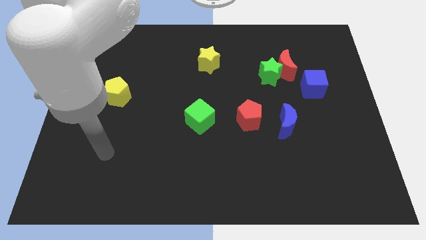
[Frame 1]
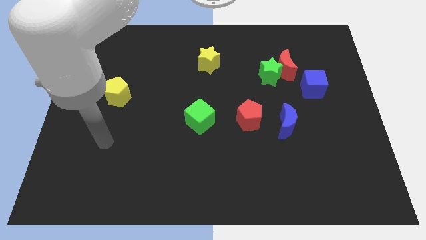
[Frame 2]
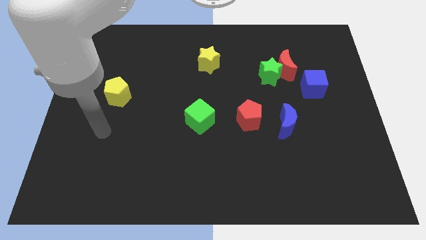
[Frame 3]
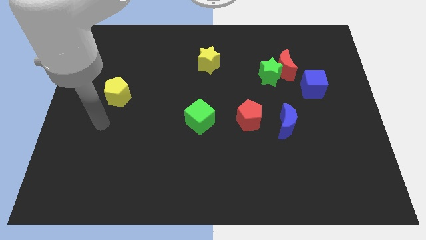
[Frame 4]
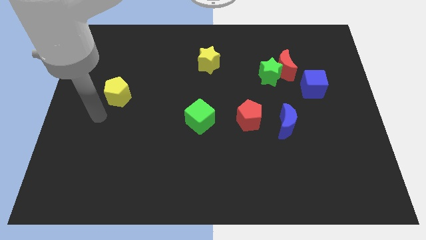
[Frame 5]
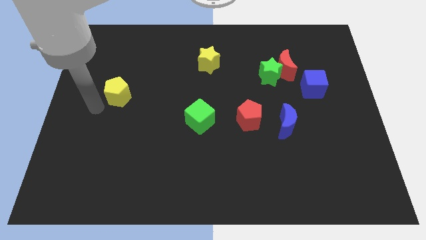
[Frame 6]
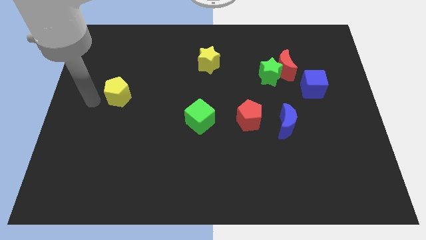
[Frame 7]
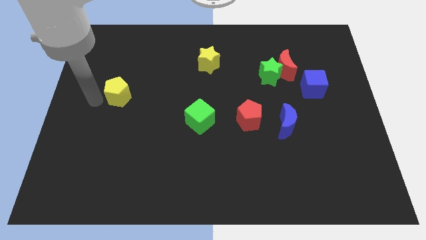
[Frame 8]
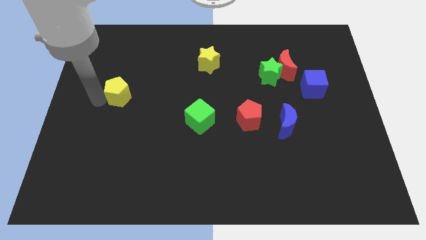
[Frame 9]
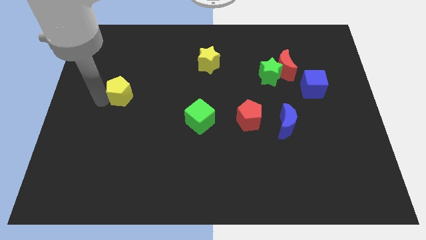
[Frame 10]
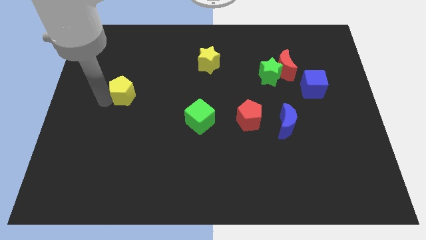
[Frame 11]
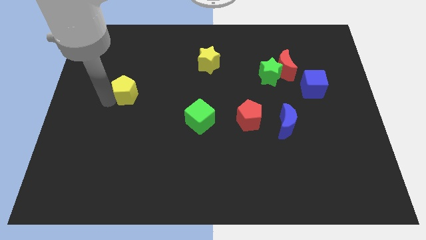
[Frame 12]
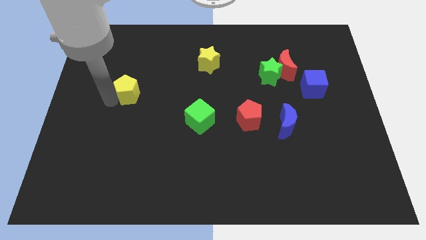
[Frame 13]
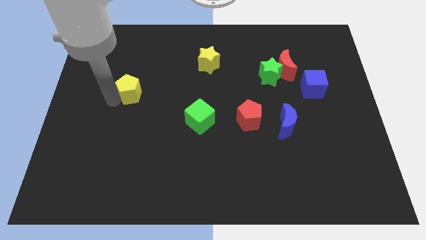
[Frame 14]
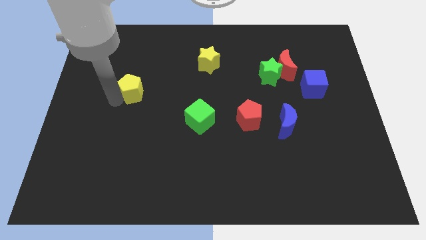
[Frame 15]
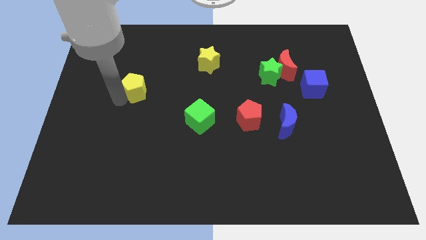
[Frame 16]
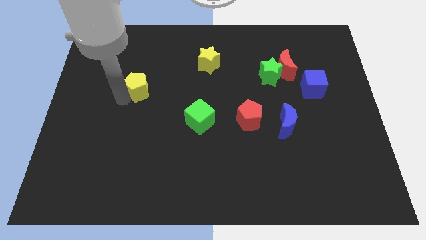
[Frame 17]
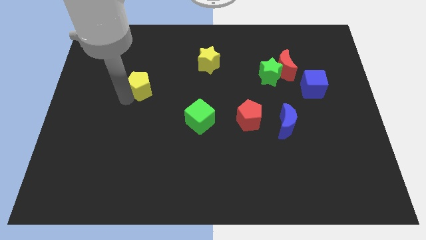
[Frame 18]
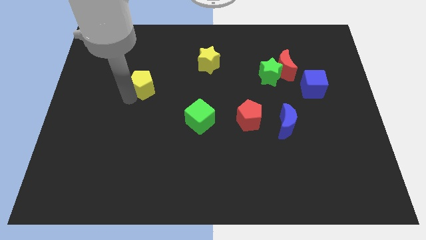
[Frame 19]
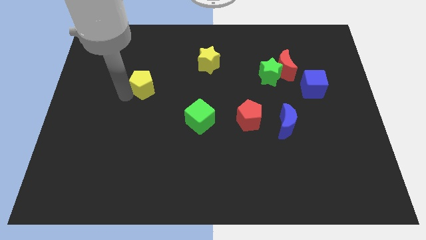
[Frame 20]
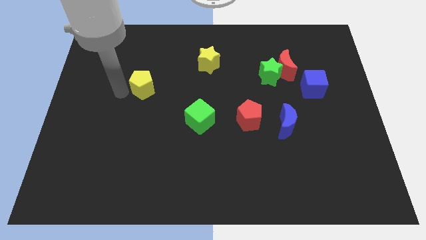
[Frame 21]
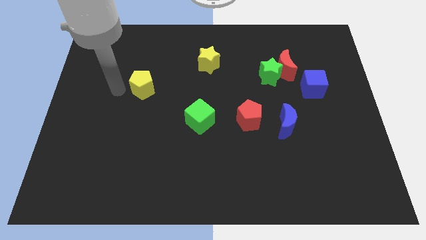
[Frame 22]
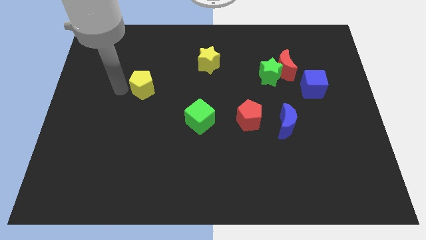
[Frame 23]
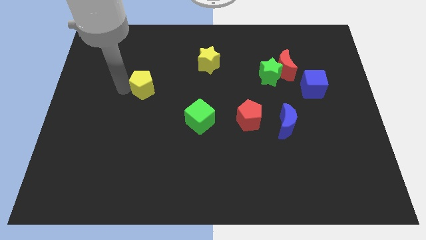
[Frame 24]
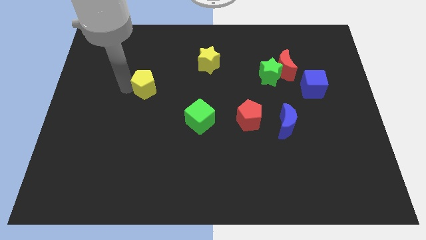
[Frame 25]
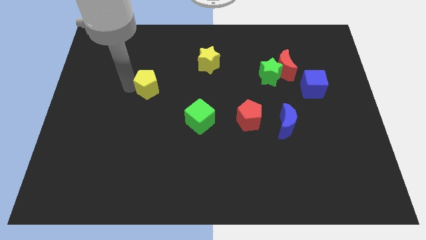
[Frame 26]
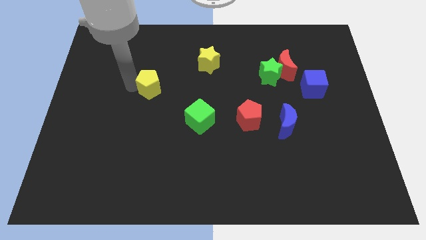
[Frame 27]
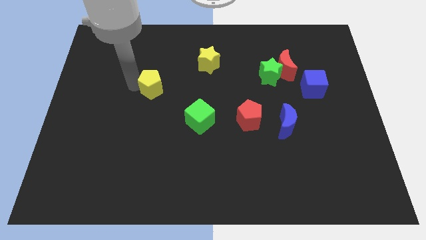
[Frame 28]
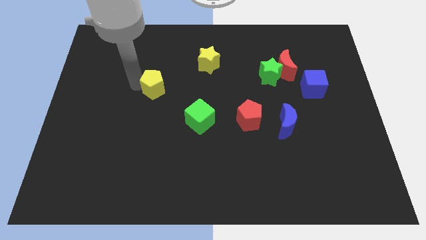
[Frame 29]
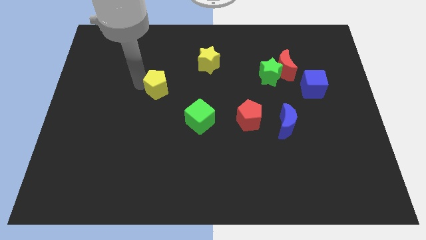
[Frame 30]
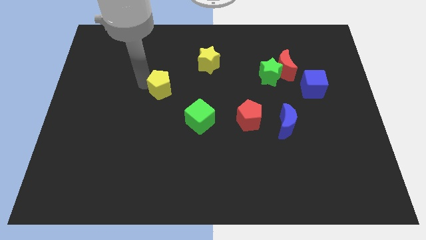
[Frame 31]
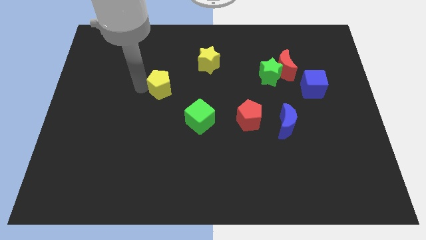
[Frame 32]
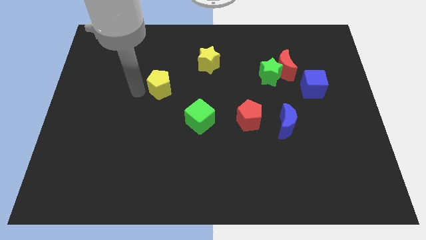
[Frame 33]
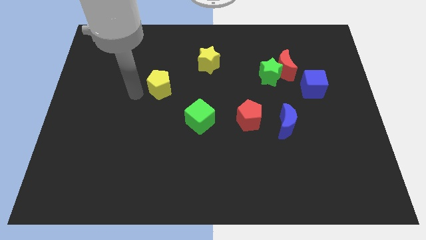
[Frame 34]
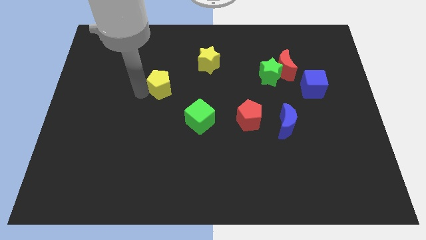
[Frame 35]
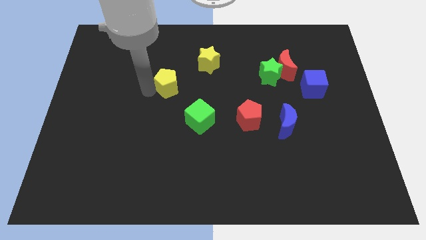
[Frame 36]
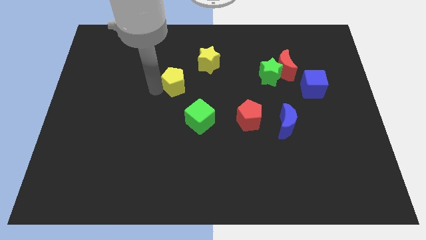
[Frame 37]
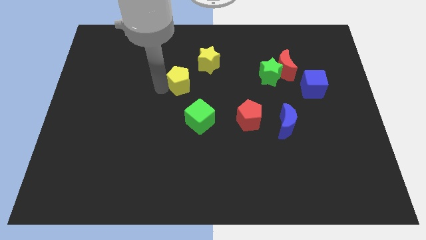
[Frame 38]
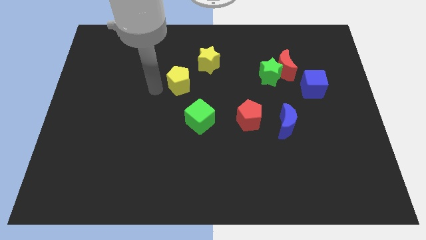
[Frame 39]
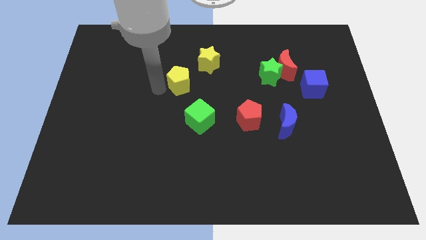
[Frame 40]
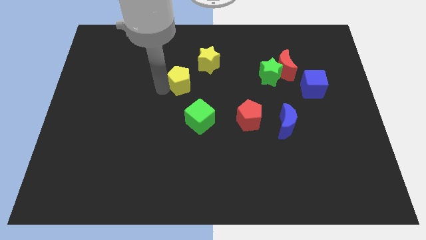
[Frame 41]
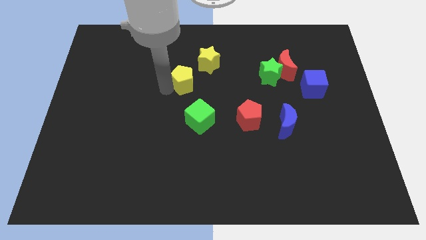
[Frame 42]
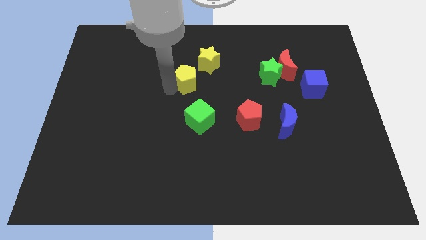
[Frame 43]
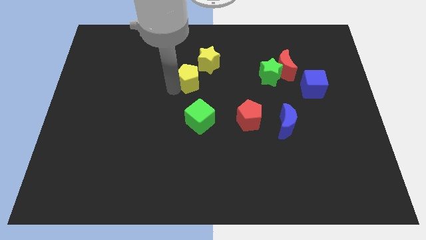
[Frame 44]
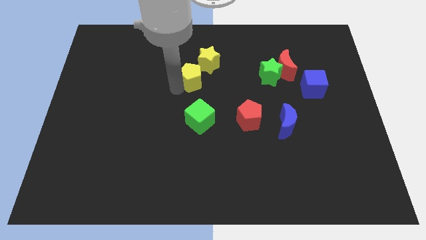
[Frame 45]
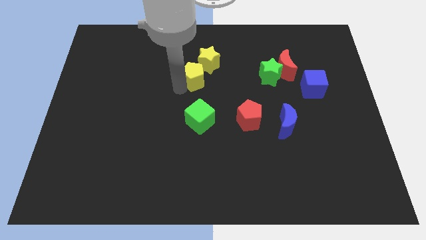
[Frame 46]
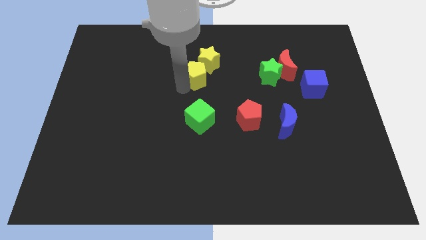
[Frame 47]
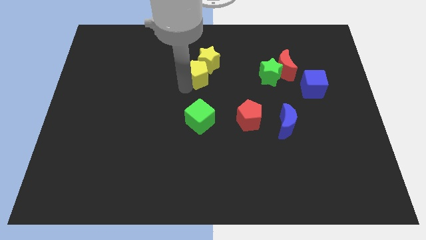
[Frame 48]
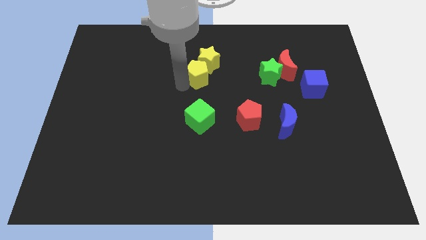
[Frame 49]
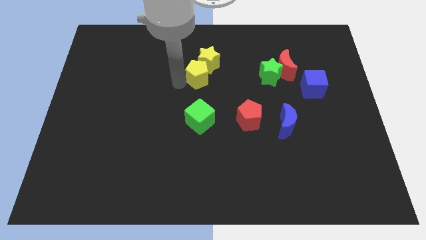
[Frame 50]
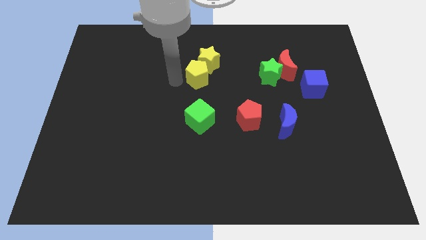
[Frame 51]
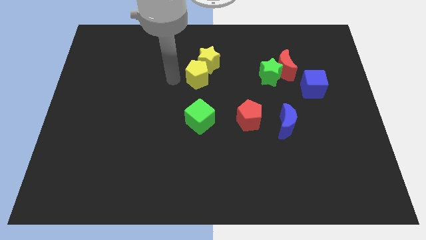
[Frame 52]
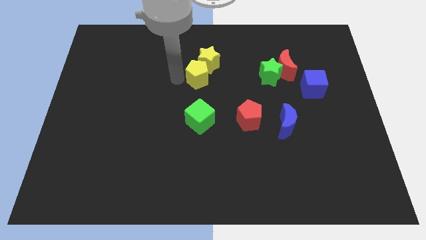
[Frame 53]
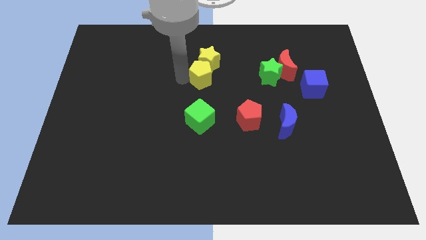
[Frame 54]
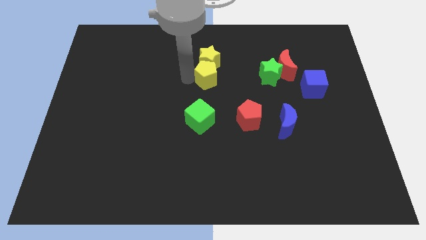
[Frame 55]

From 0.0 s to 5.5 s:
move the yellow pentagon left of the green star

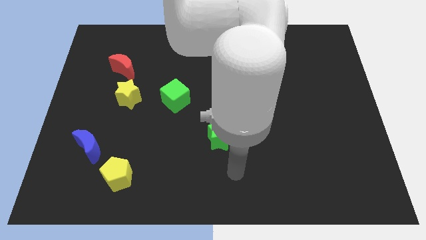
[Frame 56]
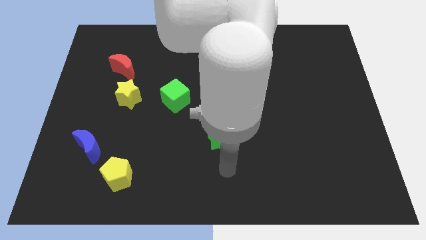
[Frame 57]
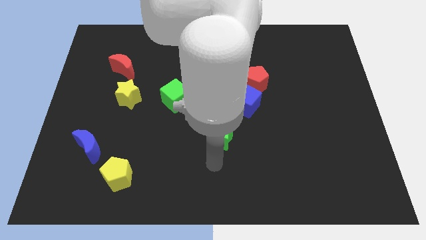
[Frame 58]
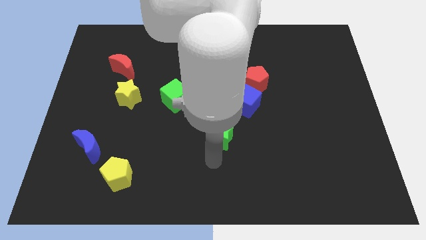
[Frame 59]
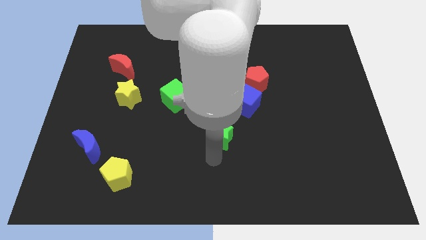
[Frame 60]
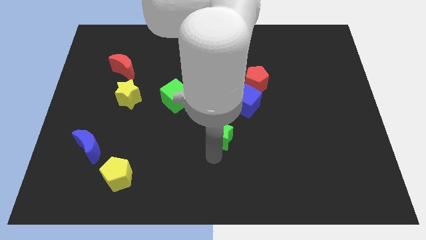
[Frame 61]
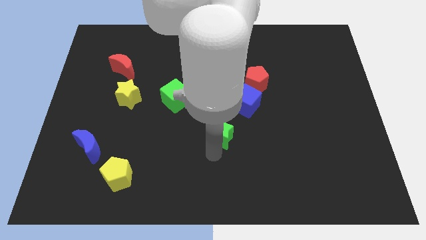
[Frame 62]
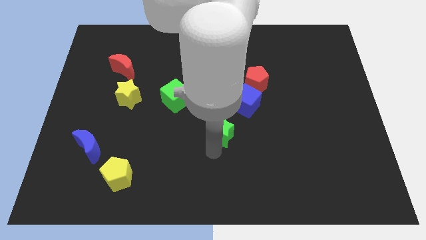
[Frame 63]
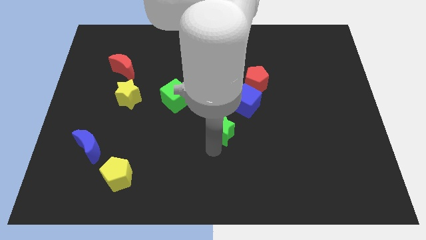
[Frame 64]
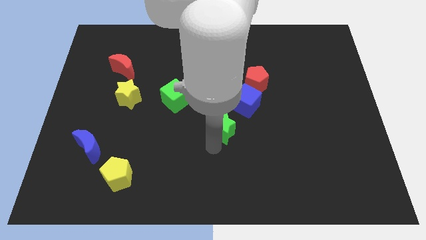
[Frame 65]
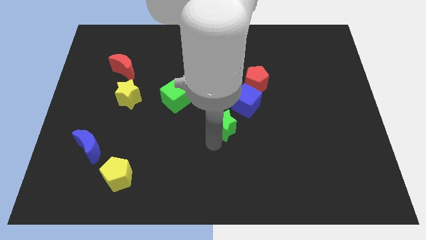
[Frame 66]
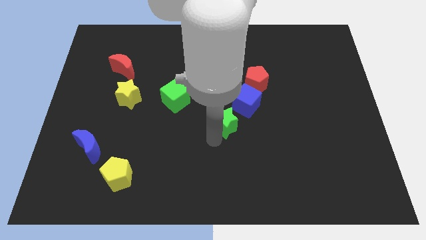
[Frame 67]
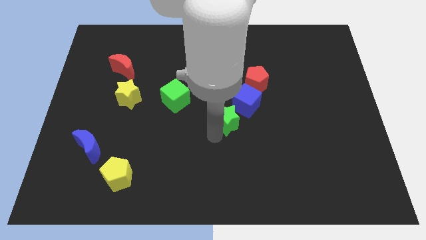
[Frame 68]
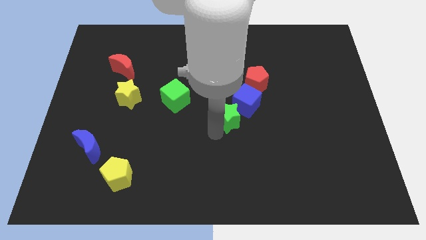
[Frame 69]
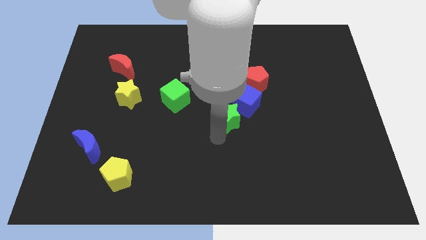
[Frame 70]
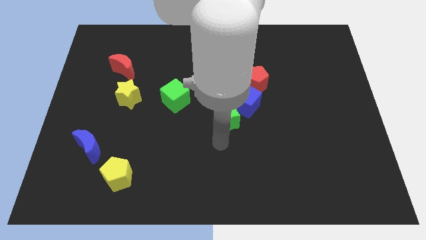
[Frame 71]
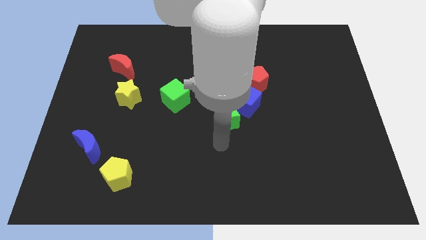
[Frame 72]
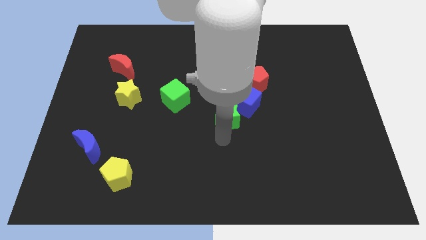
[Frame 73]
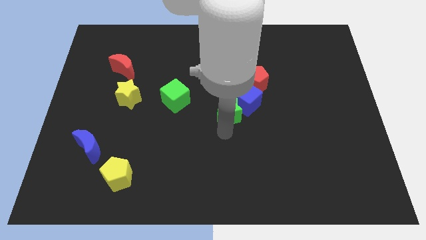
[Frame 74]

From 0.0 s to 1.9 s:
push the green star diagonally down and to the left of the red pentagon
